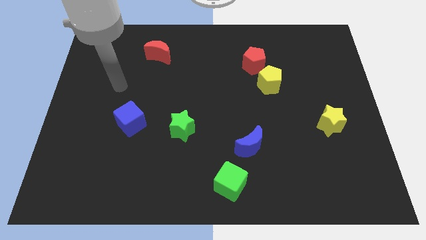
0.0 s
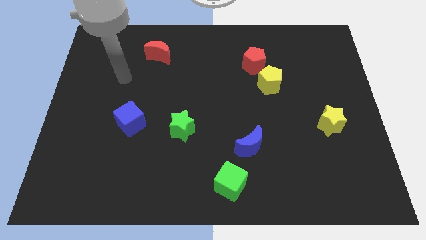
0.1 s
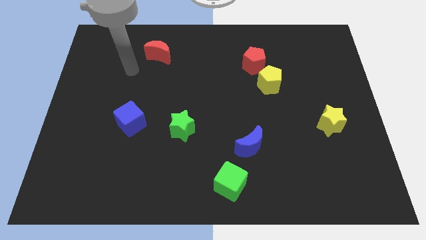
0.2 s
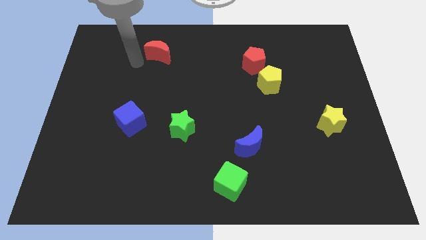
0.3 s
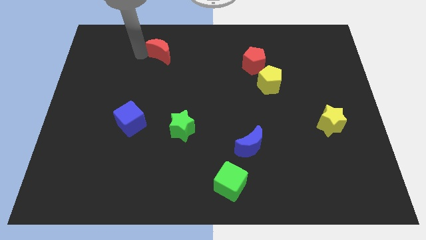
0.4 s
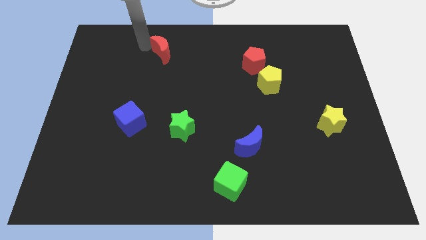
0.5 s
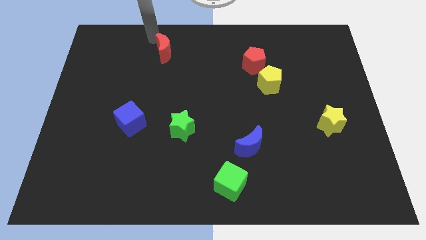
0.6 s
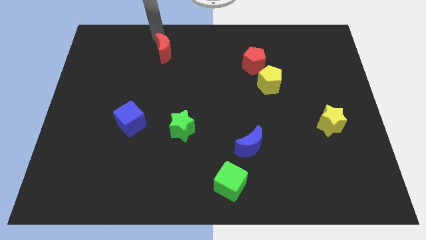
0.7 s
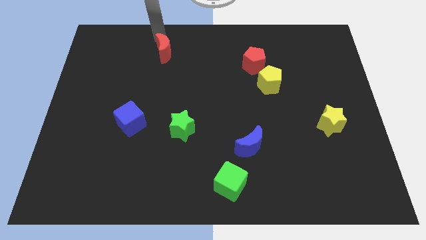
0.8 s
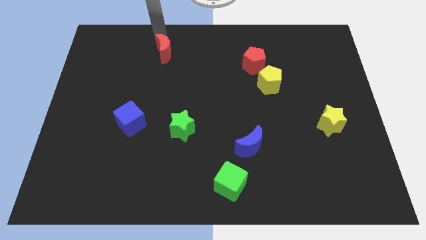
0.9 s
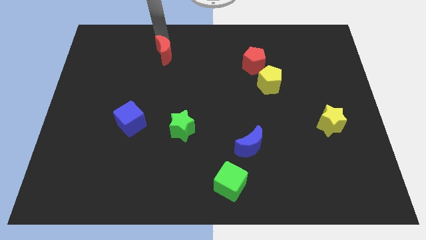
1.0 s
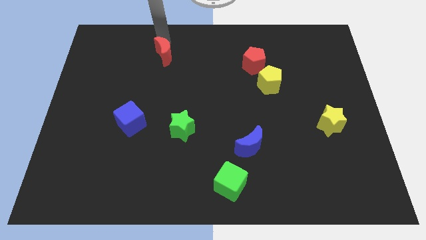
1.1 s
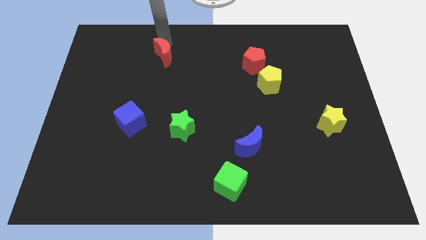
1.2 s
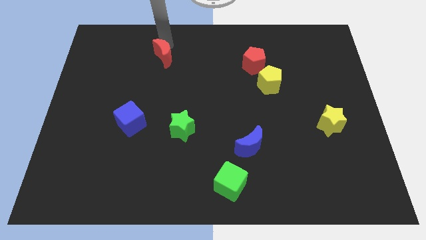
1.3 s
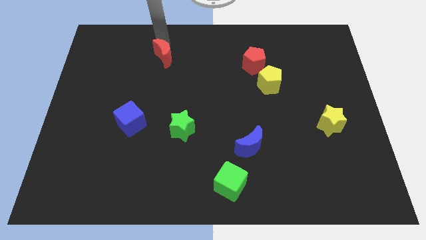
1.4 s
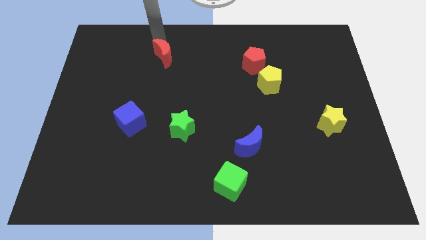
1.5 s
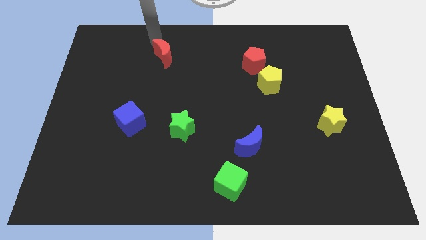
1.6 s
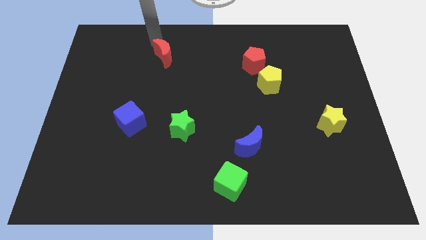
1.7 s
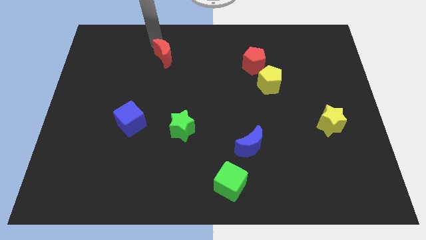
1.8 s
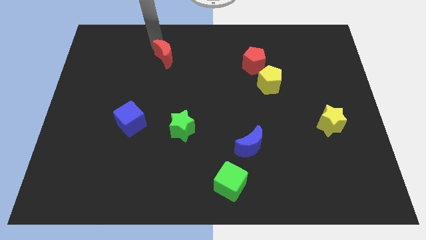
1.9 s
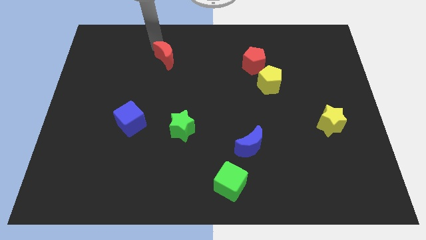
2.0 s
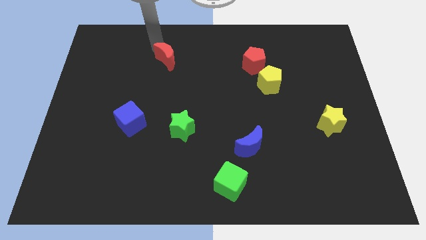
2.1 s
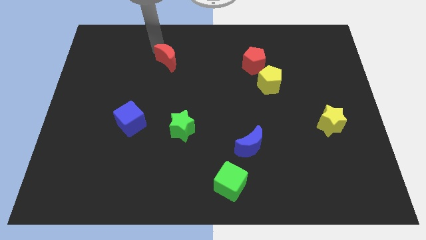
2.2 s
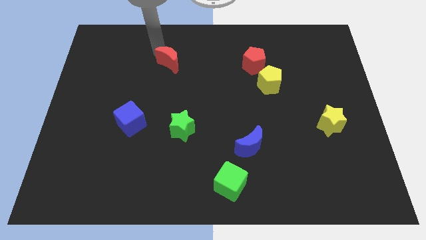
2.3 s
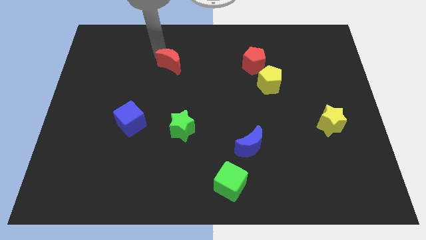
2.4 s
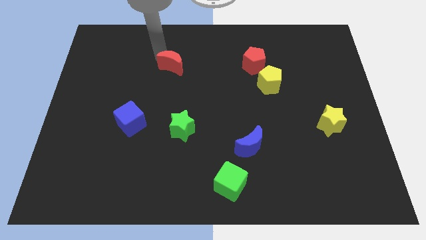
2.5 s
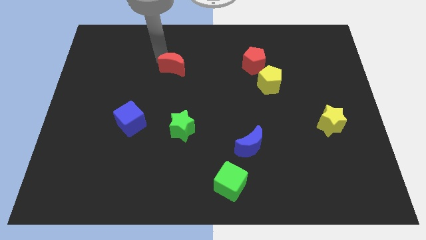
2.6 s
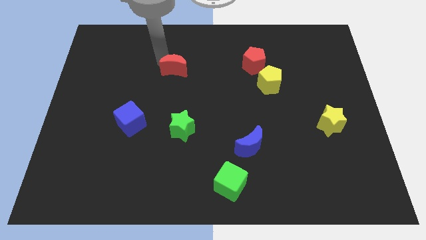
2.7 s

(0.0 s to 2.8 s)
slide the red moon down and right diagonally a little bit

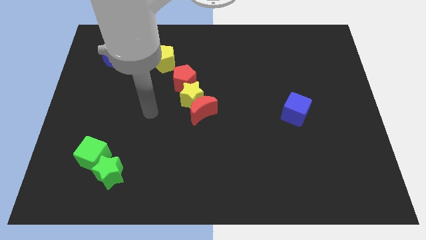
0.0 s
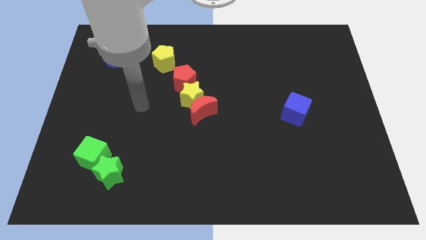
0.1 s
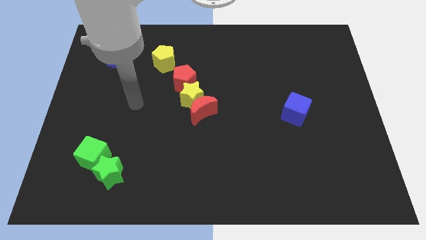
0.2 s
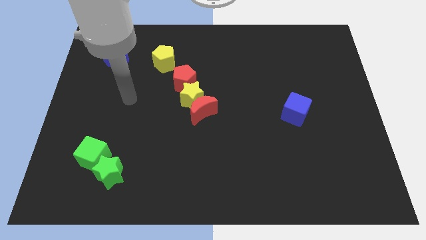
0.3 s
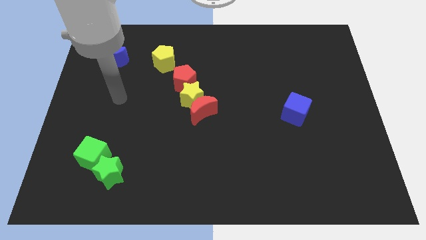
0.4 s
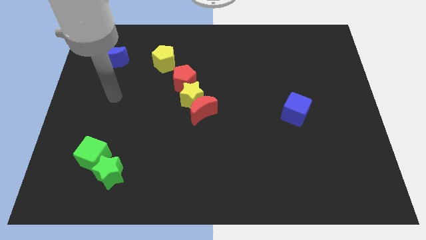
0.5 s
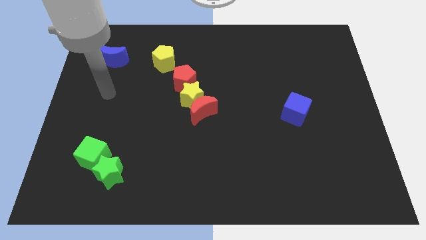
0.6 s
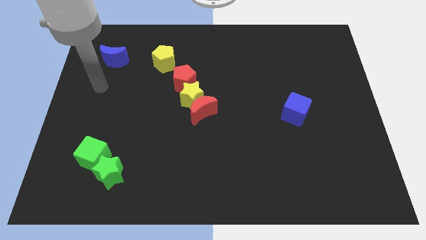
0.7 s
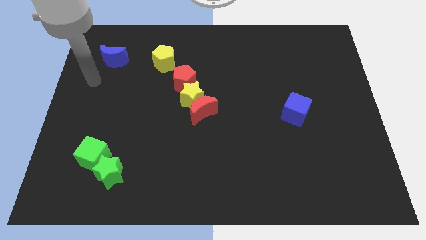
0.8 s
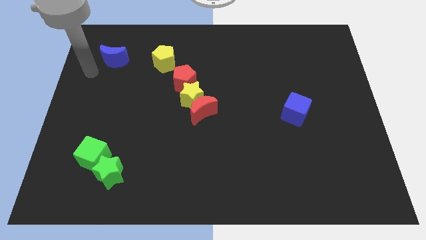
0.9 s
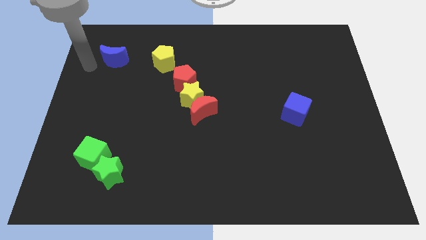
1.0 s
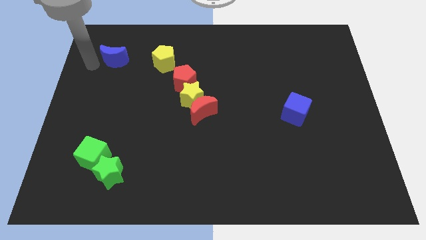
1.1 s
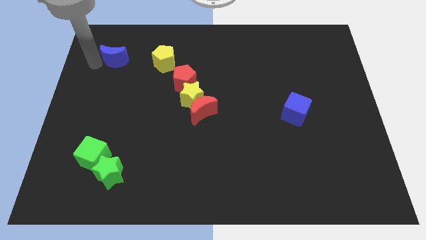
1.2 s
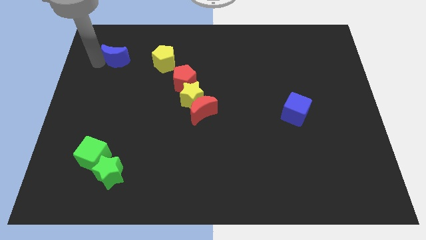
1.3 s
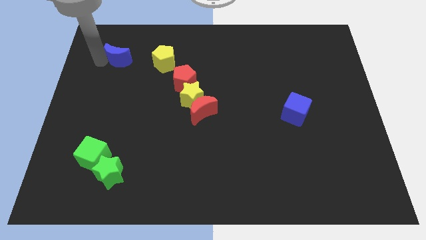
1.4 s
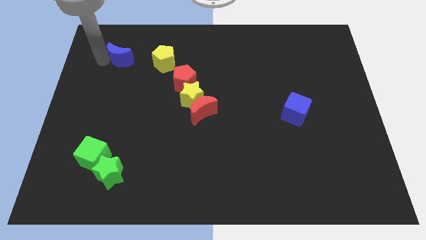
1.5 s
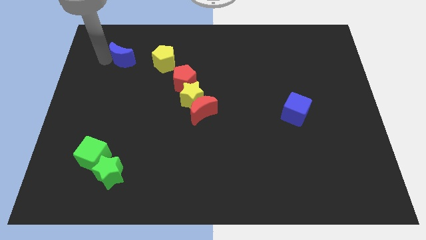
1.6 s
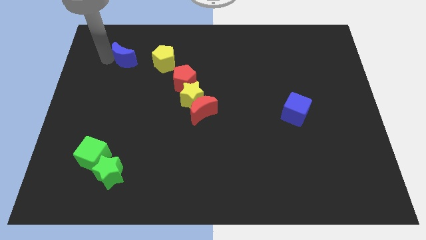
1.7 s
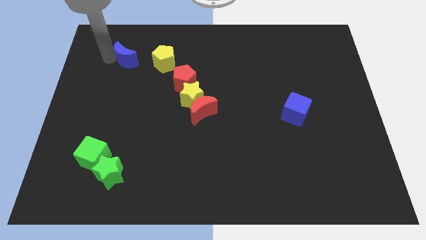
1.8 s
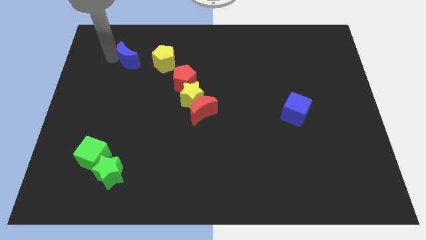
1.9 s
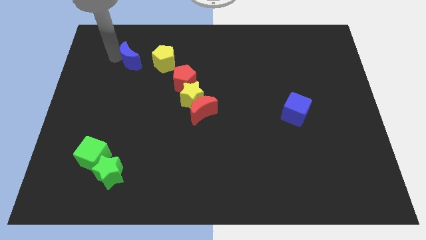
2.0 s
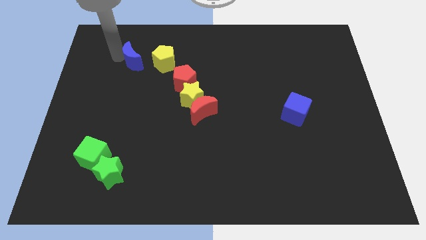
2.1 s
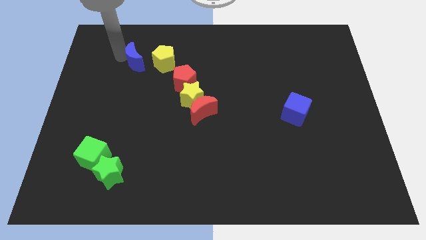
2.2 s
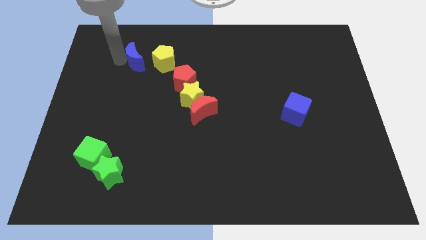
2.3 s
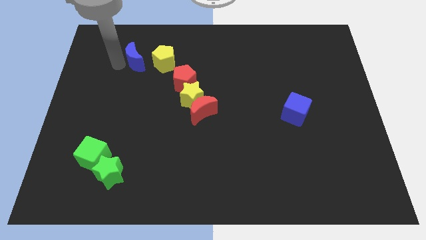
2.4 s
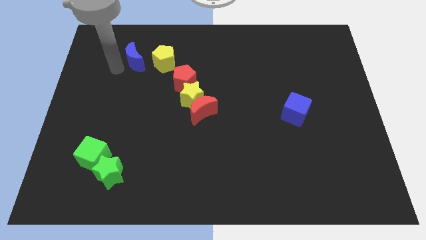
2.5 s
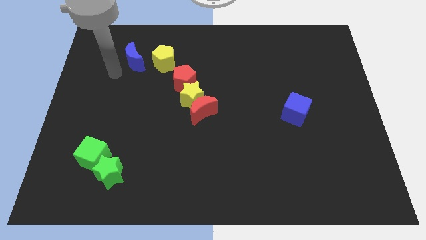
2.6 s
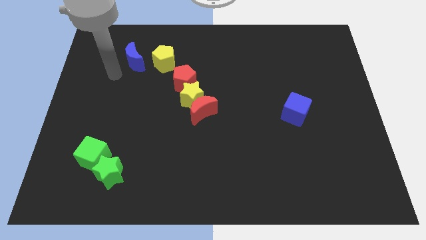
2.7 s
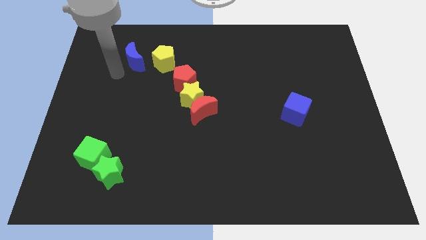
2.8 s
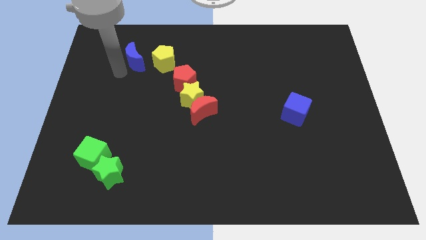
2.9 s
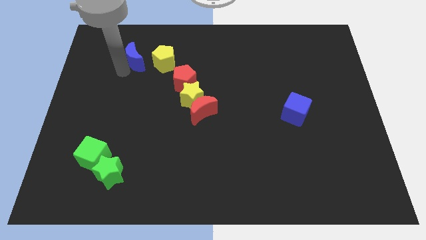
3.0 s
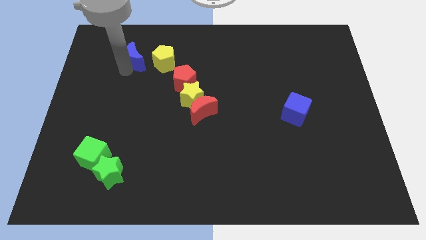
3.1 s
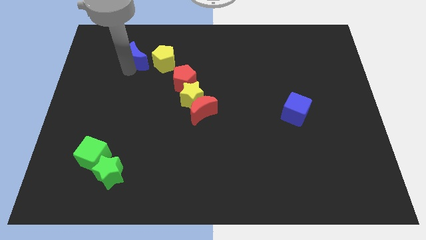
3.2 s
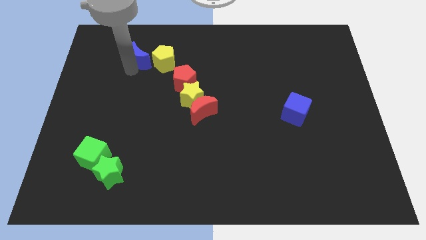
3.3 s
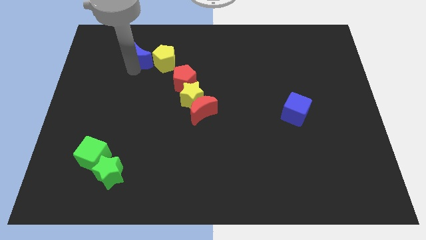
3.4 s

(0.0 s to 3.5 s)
slightly move the blue moon right

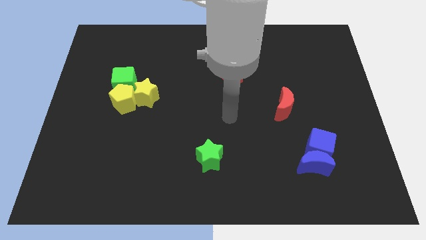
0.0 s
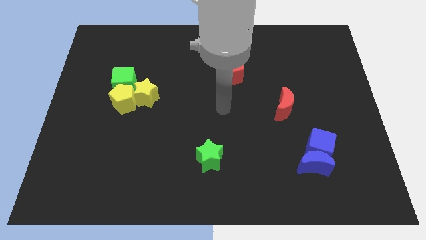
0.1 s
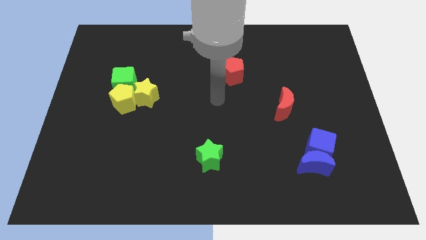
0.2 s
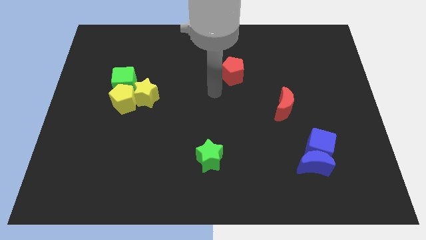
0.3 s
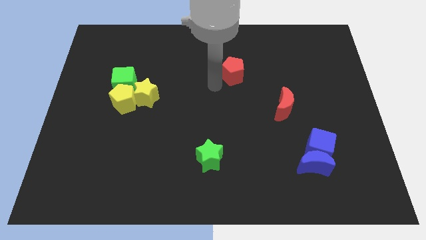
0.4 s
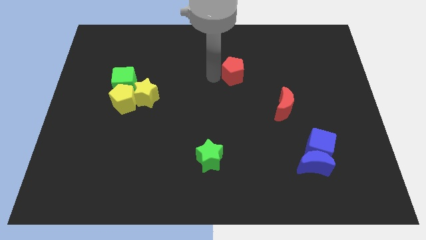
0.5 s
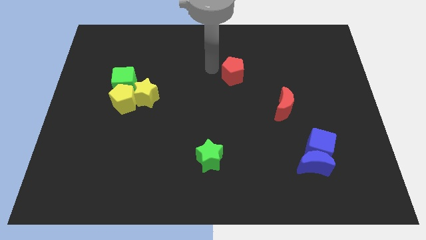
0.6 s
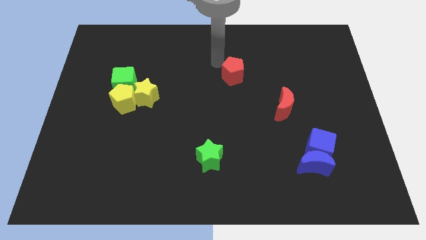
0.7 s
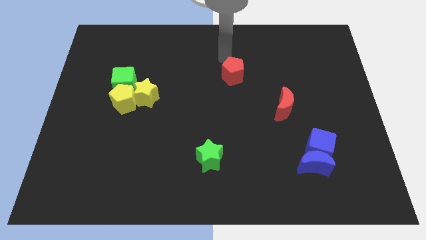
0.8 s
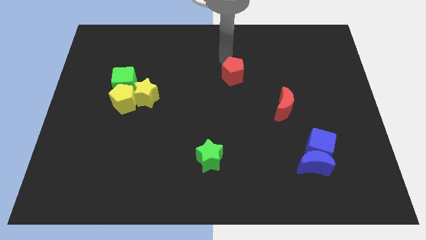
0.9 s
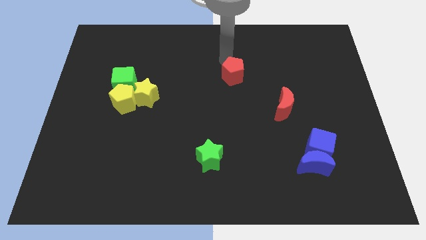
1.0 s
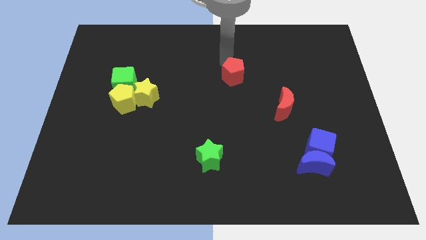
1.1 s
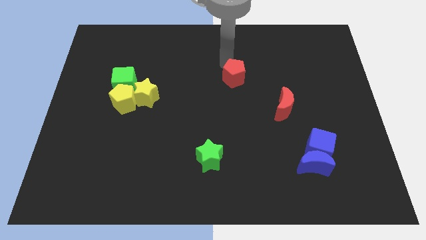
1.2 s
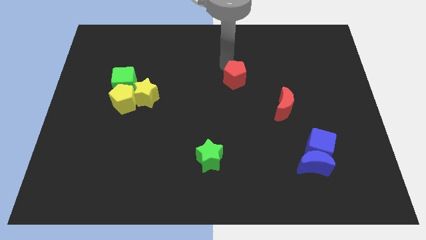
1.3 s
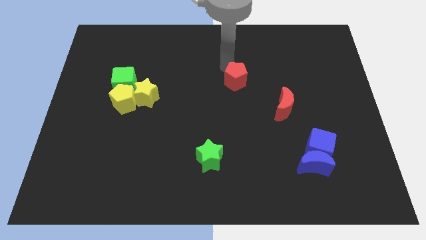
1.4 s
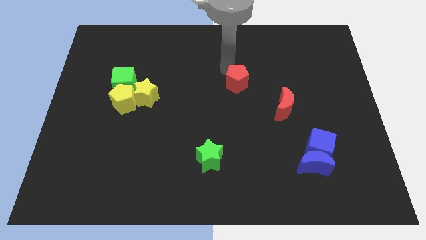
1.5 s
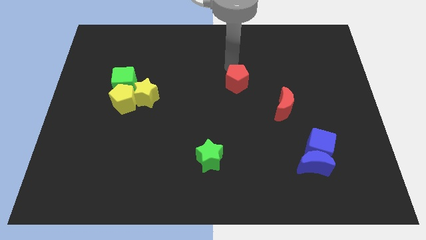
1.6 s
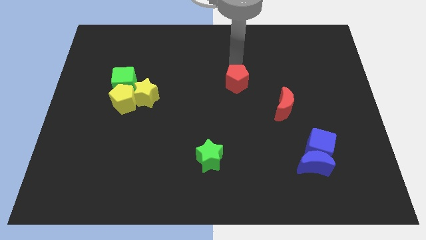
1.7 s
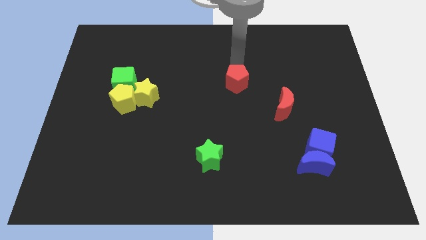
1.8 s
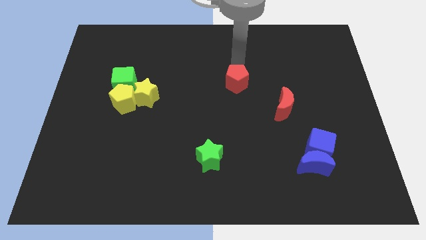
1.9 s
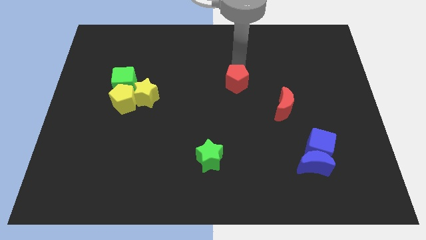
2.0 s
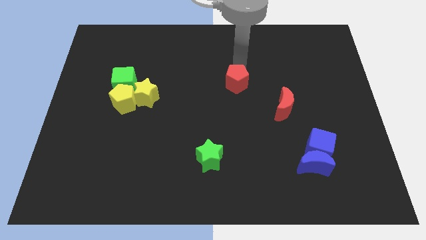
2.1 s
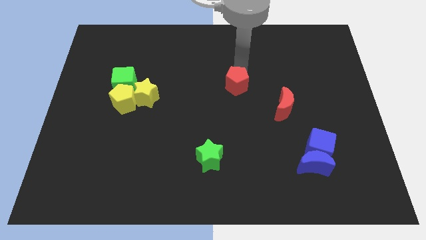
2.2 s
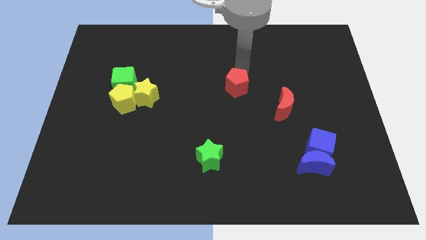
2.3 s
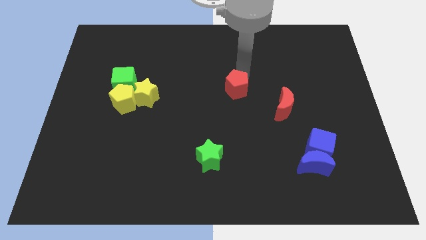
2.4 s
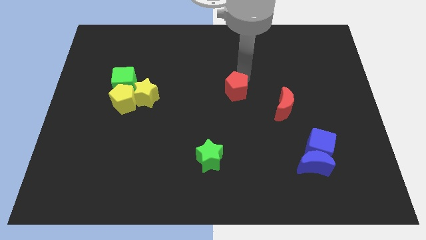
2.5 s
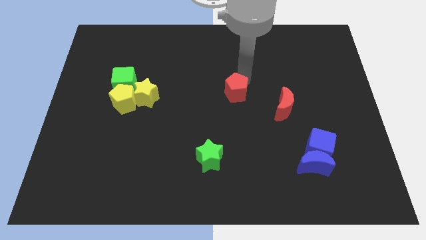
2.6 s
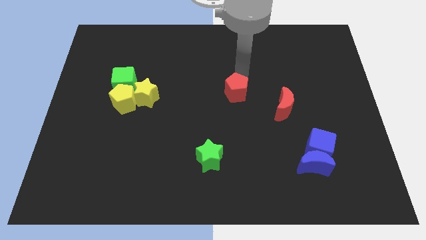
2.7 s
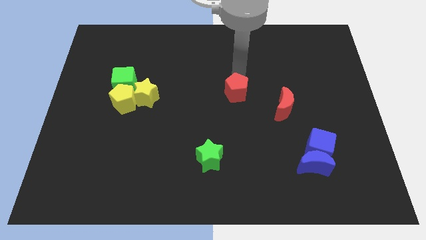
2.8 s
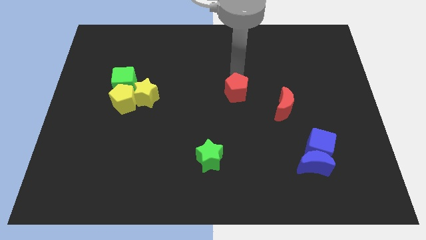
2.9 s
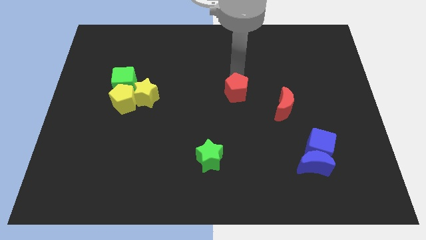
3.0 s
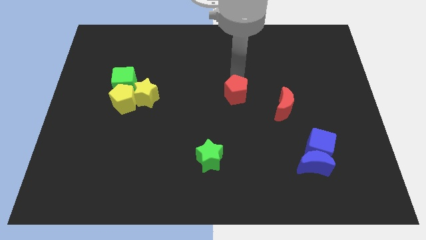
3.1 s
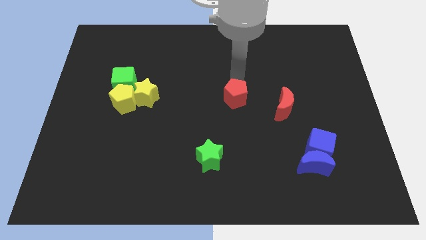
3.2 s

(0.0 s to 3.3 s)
push the red pentagon a little bit downwards
